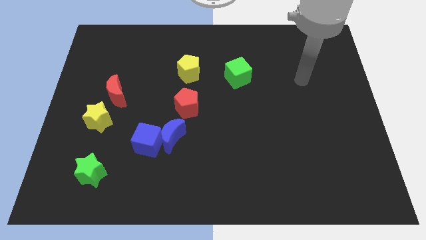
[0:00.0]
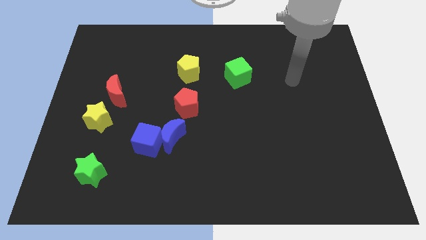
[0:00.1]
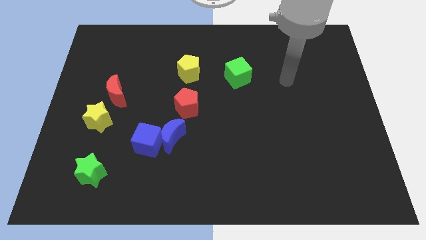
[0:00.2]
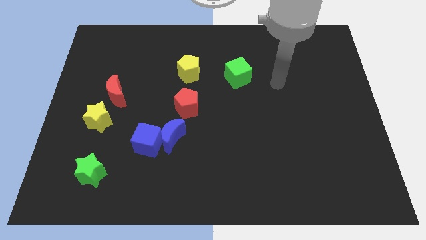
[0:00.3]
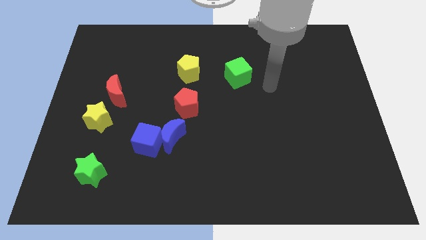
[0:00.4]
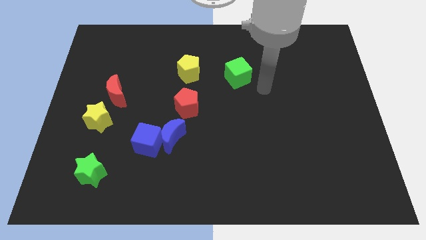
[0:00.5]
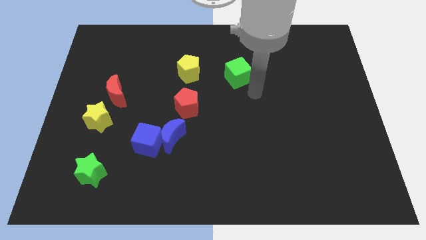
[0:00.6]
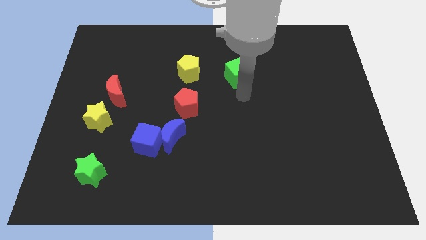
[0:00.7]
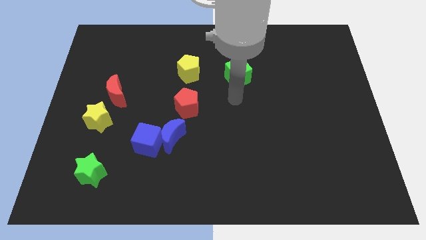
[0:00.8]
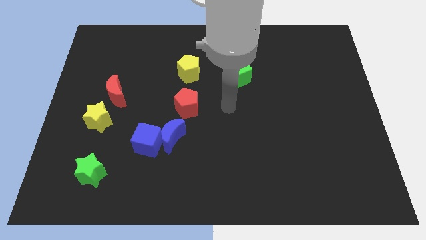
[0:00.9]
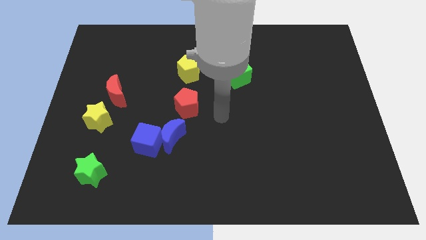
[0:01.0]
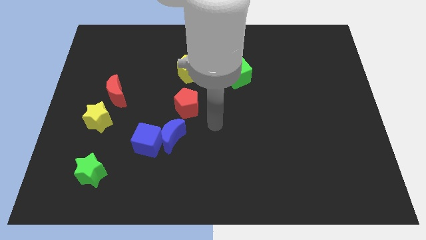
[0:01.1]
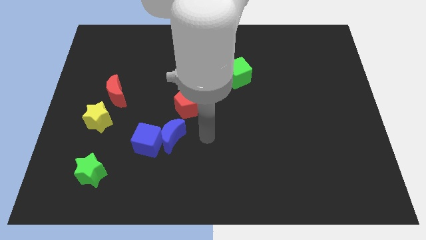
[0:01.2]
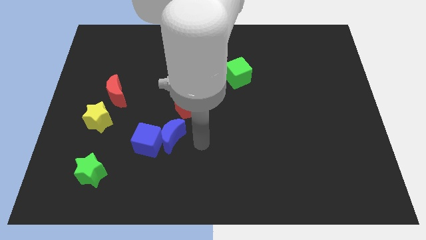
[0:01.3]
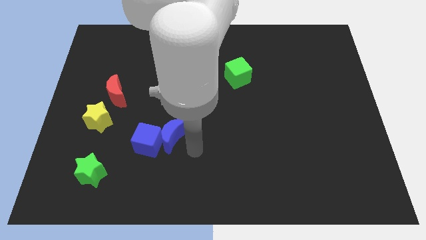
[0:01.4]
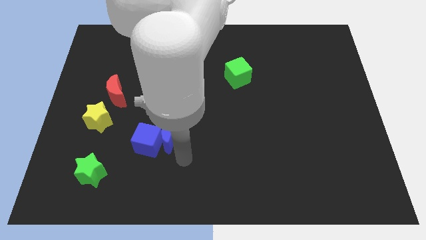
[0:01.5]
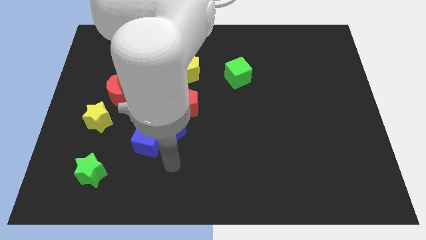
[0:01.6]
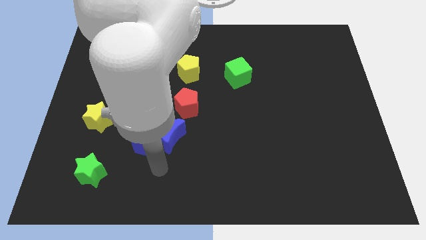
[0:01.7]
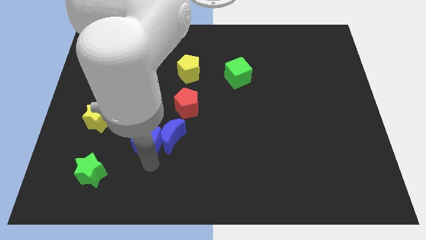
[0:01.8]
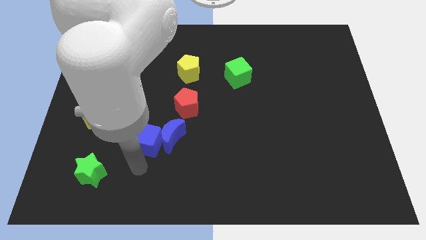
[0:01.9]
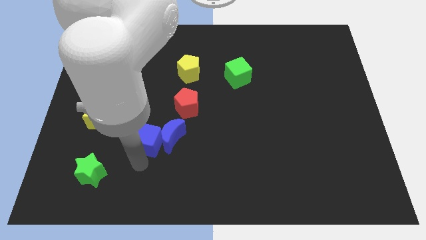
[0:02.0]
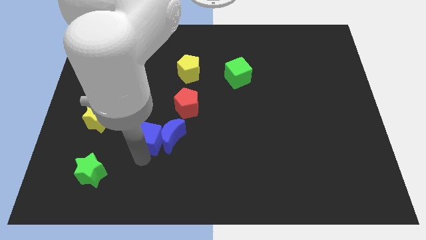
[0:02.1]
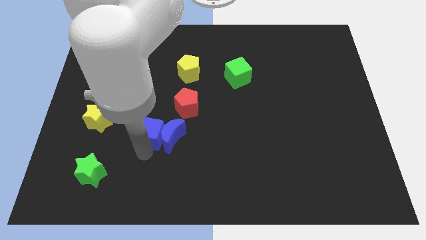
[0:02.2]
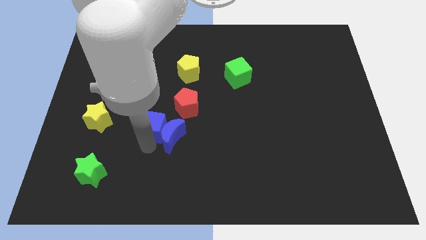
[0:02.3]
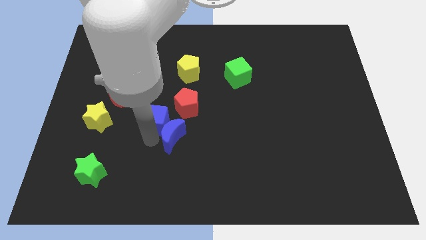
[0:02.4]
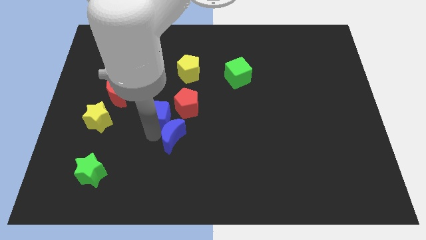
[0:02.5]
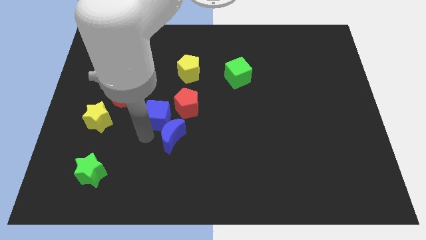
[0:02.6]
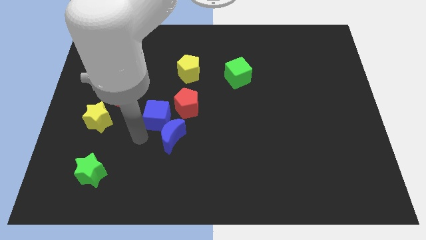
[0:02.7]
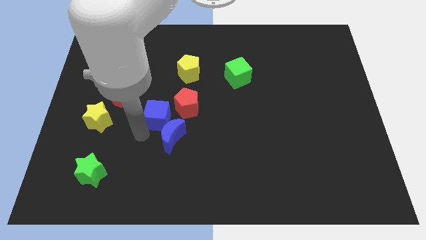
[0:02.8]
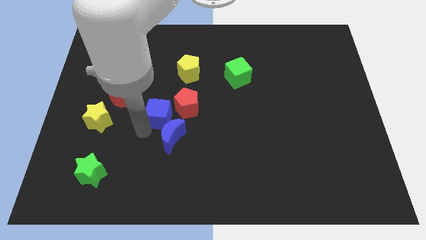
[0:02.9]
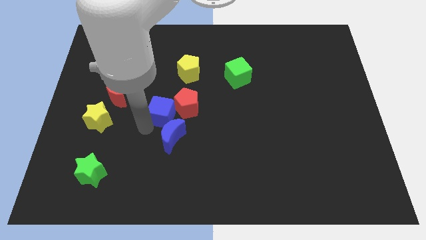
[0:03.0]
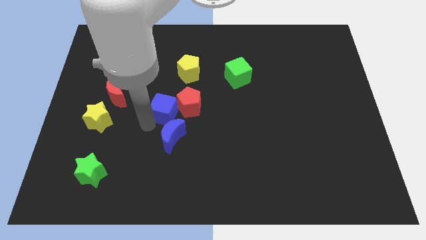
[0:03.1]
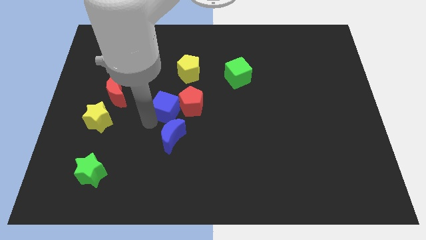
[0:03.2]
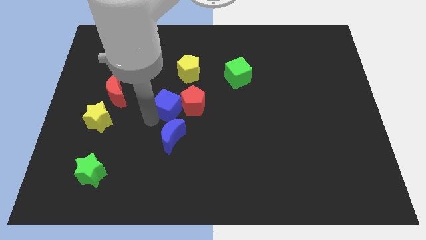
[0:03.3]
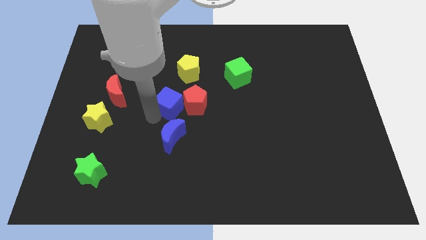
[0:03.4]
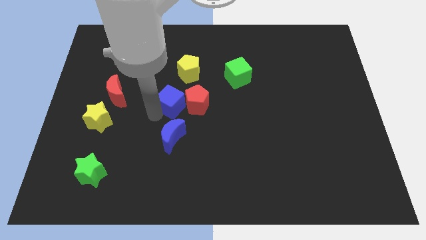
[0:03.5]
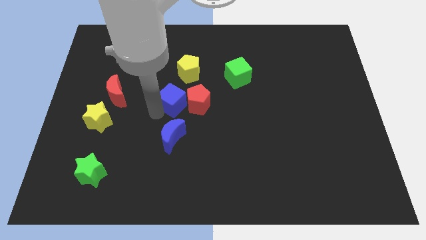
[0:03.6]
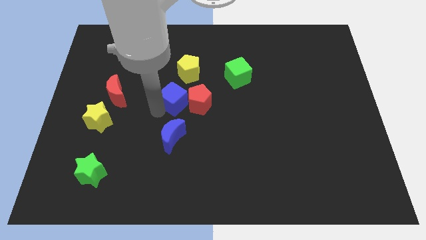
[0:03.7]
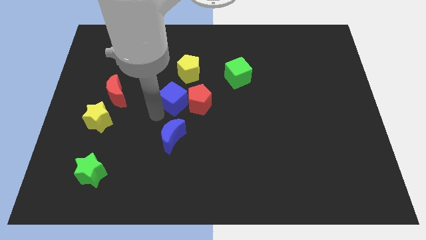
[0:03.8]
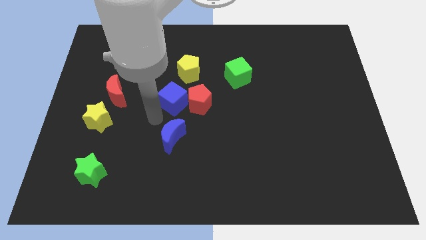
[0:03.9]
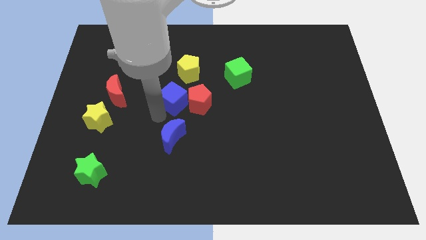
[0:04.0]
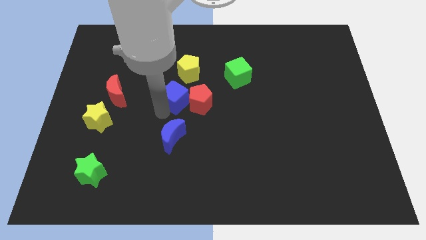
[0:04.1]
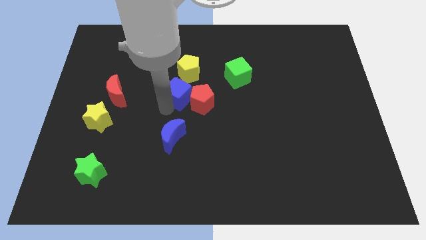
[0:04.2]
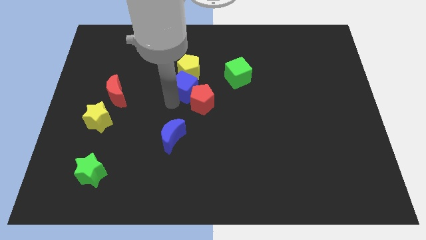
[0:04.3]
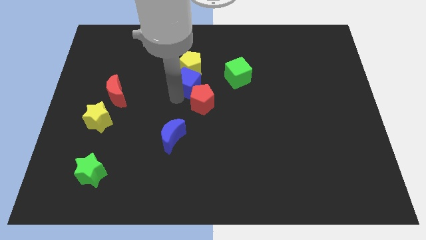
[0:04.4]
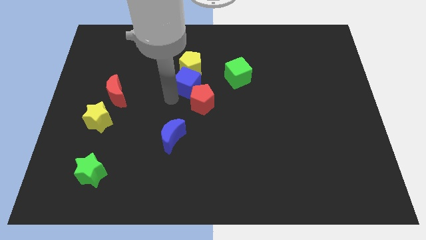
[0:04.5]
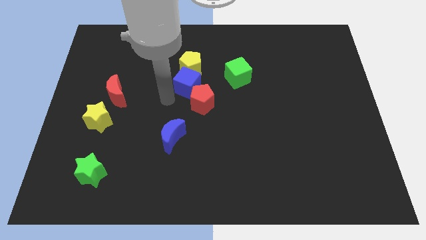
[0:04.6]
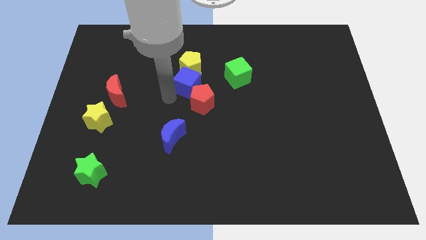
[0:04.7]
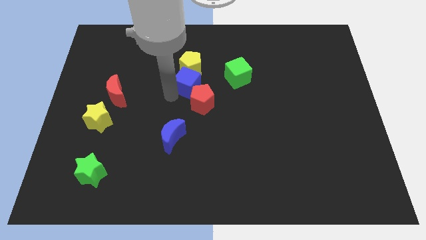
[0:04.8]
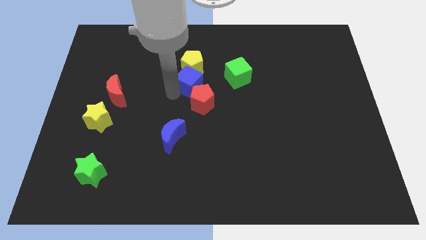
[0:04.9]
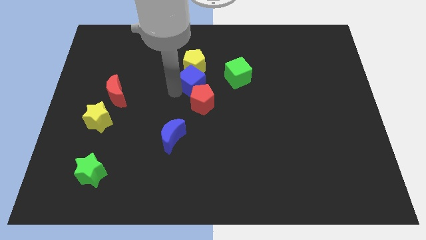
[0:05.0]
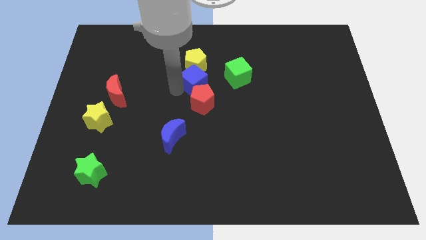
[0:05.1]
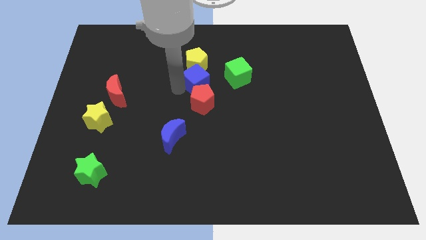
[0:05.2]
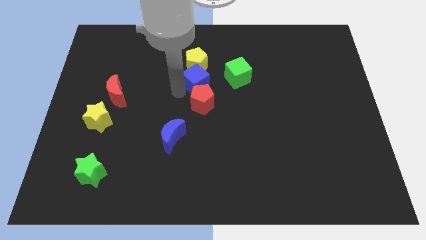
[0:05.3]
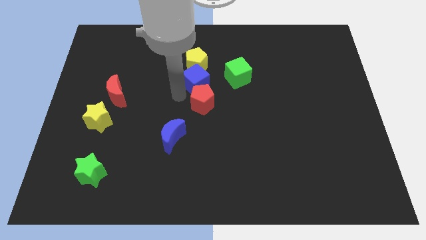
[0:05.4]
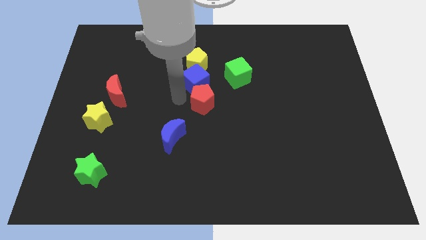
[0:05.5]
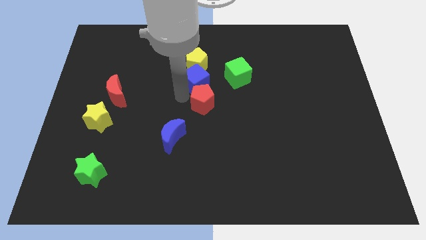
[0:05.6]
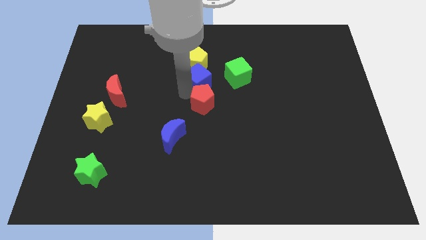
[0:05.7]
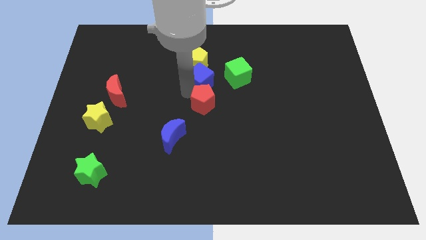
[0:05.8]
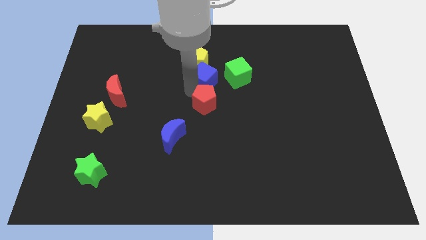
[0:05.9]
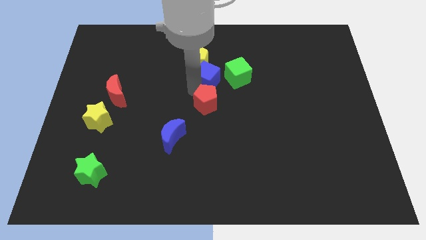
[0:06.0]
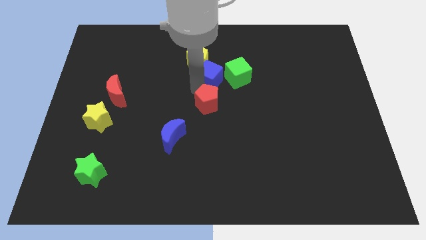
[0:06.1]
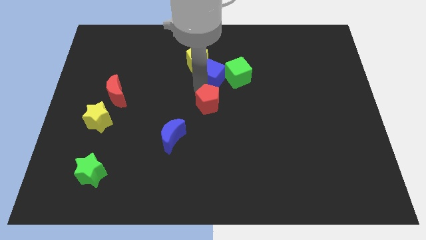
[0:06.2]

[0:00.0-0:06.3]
put the blue cube diagonally up and to the left of the green cube

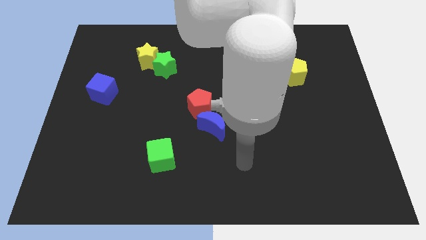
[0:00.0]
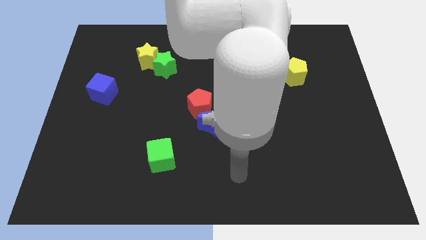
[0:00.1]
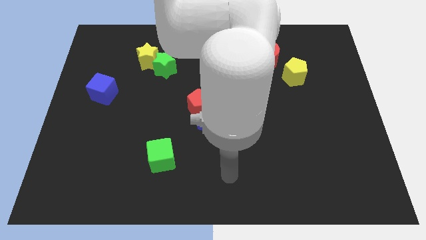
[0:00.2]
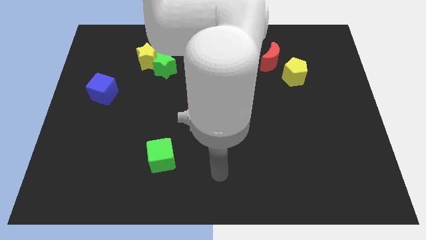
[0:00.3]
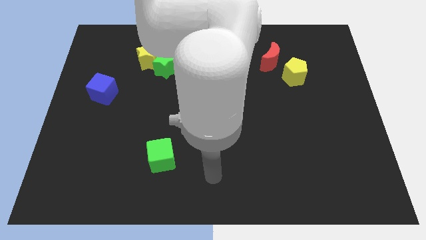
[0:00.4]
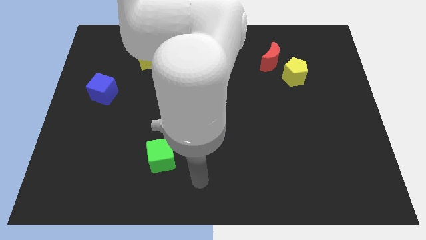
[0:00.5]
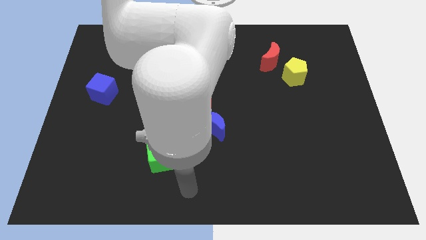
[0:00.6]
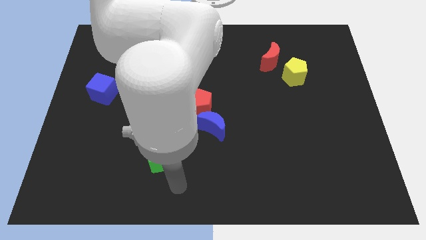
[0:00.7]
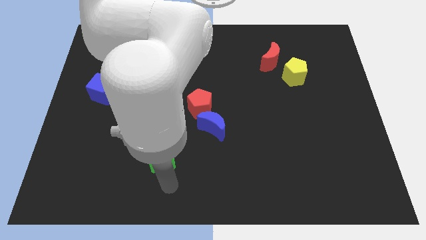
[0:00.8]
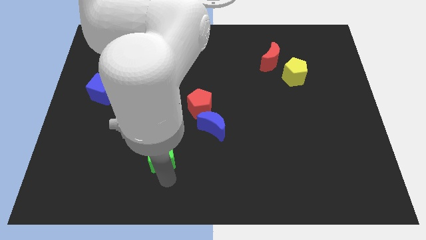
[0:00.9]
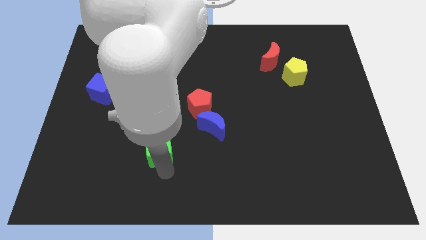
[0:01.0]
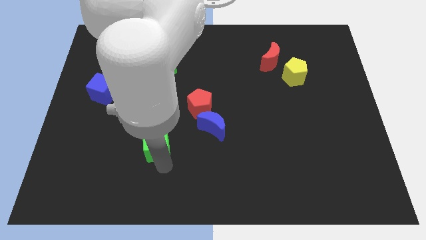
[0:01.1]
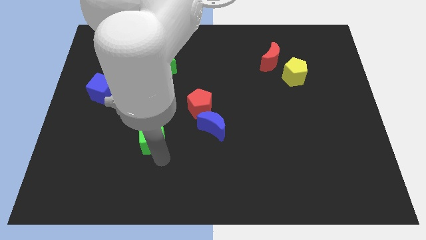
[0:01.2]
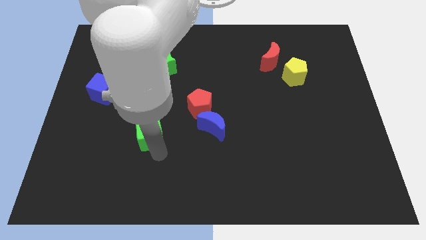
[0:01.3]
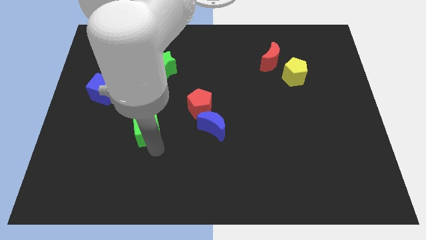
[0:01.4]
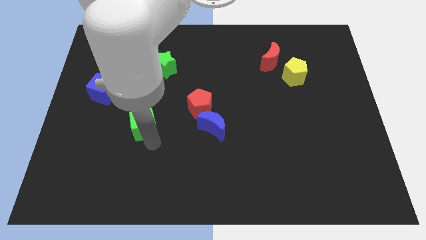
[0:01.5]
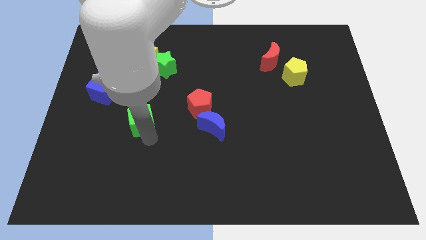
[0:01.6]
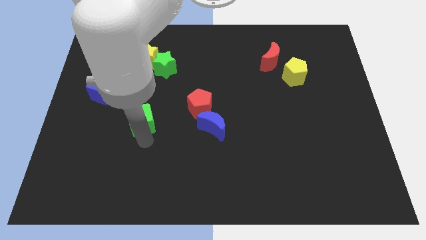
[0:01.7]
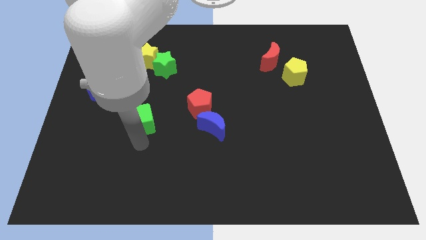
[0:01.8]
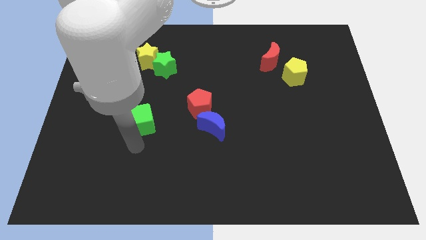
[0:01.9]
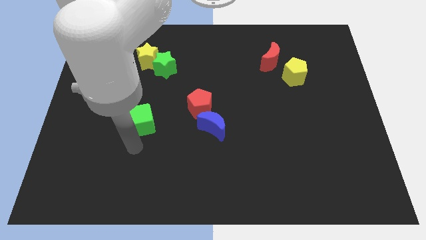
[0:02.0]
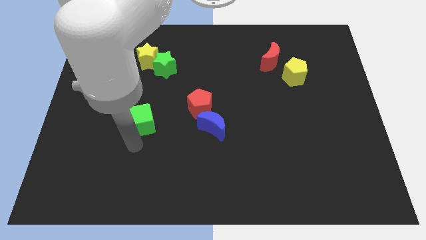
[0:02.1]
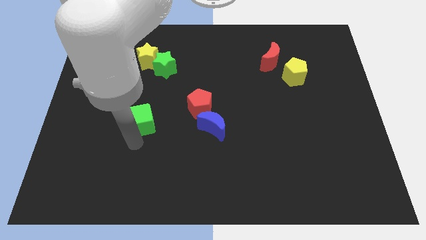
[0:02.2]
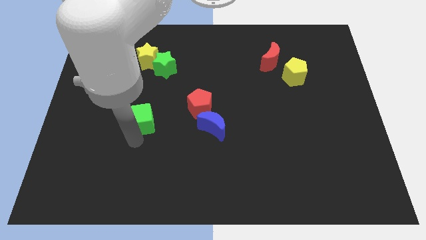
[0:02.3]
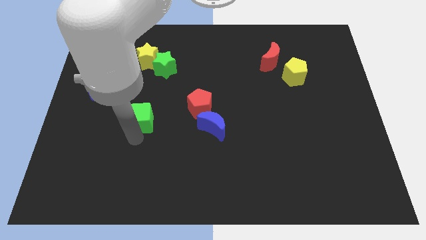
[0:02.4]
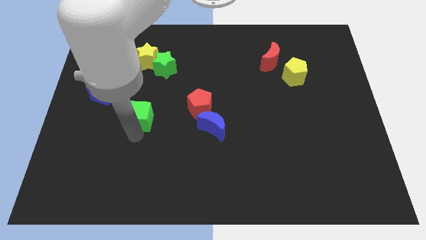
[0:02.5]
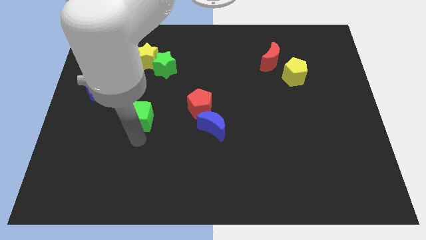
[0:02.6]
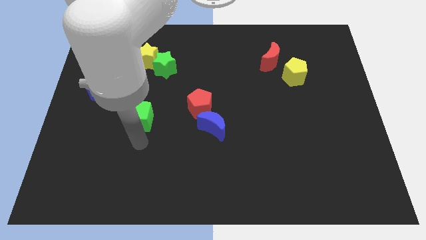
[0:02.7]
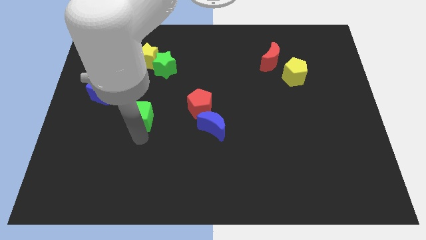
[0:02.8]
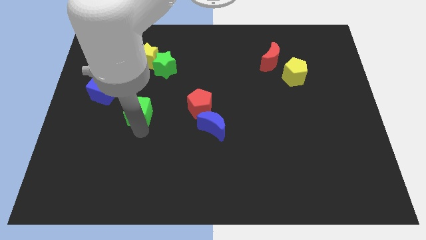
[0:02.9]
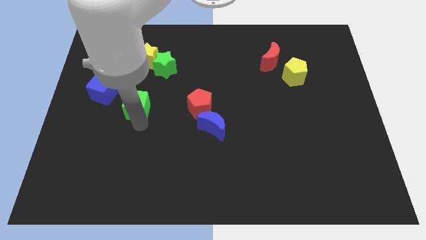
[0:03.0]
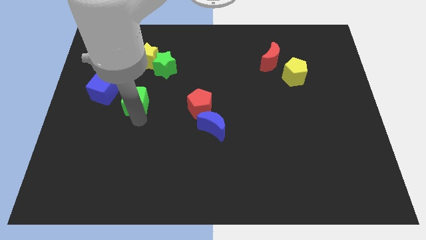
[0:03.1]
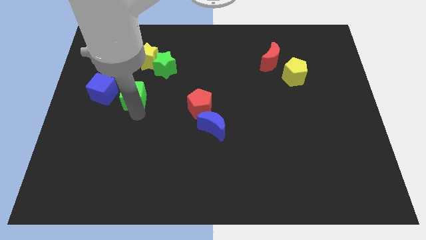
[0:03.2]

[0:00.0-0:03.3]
move the green cube diagonally down and to the left of the green star
